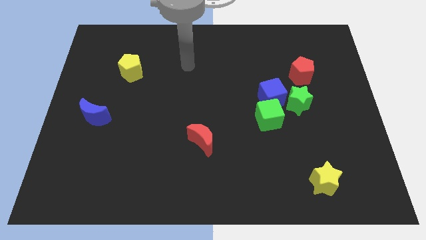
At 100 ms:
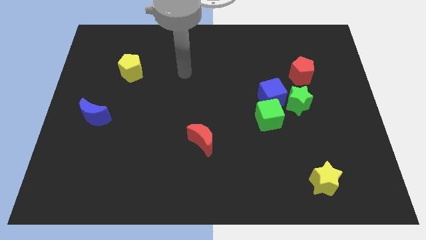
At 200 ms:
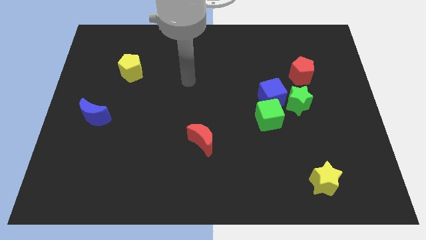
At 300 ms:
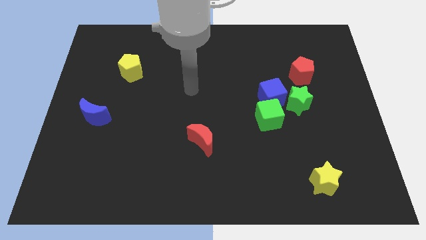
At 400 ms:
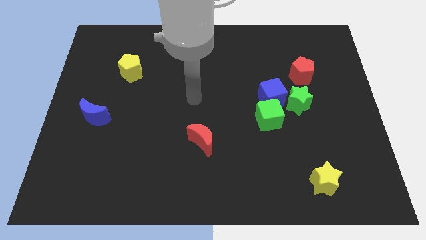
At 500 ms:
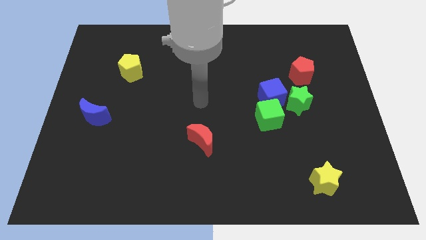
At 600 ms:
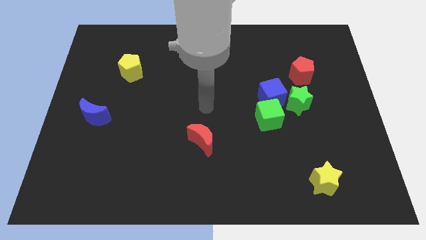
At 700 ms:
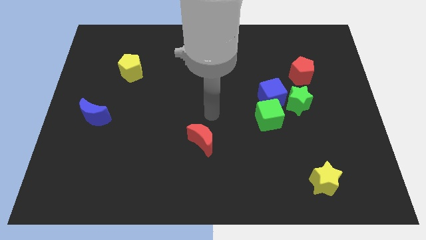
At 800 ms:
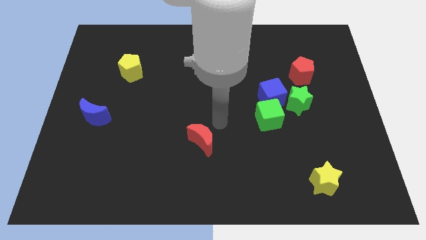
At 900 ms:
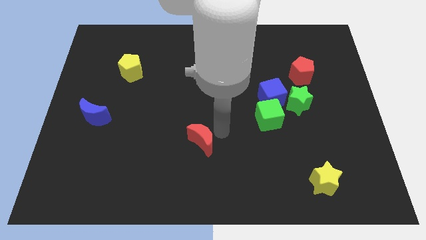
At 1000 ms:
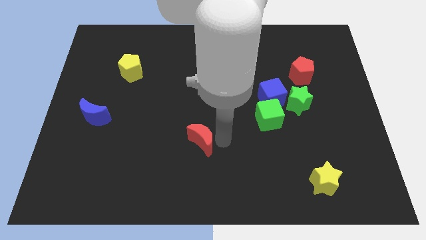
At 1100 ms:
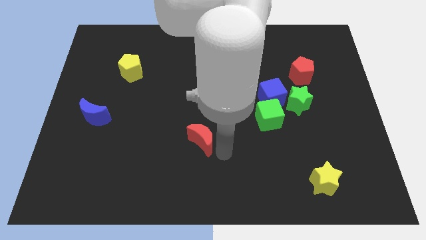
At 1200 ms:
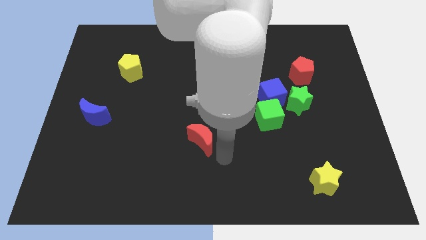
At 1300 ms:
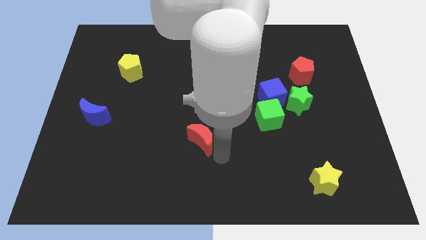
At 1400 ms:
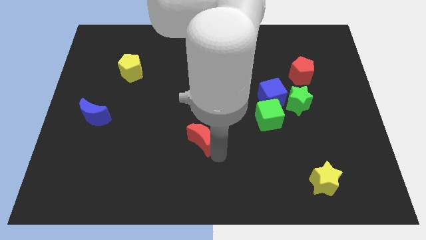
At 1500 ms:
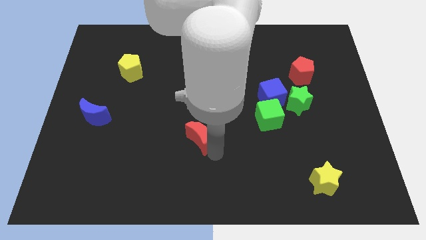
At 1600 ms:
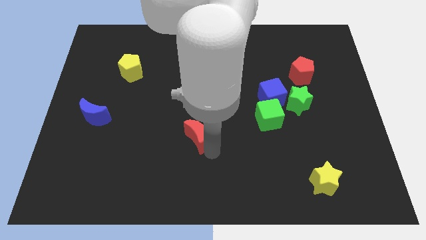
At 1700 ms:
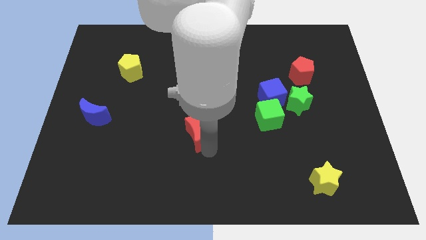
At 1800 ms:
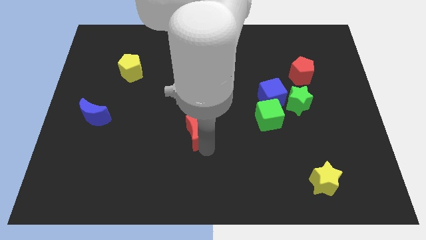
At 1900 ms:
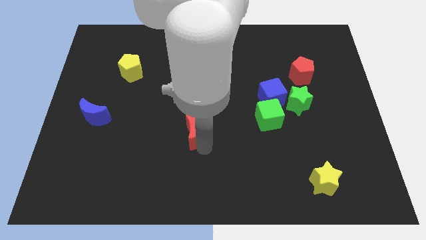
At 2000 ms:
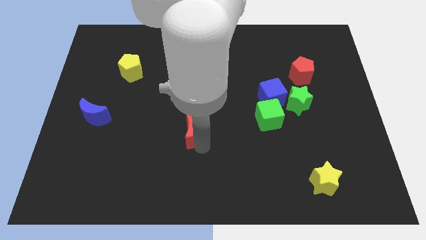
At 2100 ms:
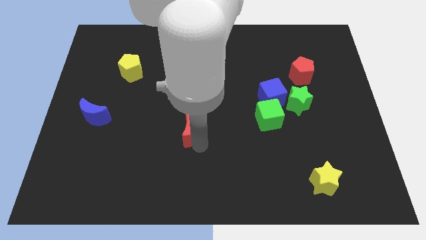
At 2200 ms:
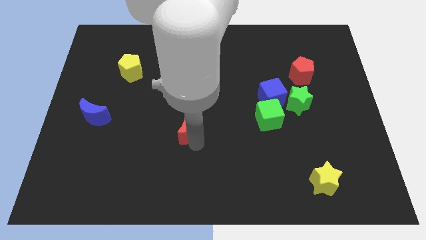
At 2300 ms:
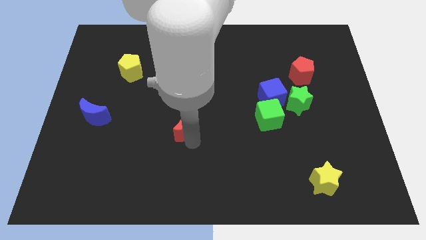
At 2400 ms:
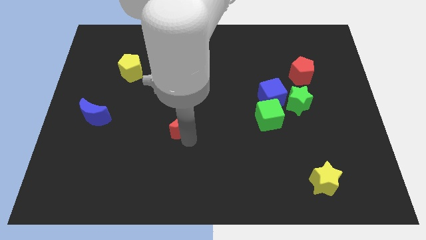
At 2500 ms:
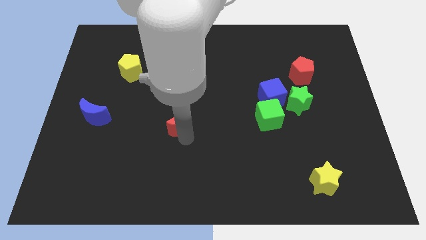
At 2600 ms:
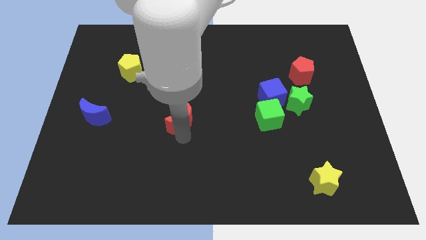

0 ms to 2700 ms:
slightly push the red moon upwards and then left

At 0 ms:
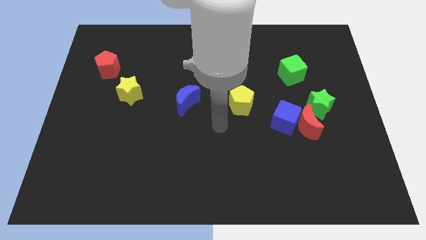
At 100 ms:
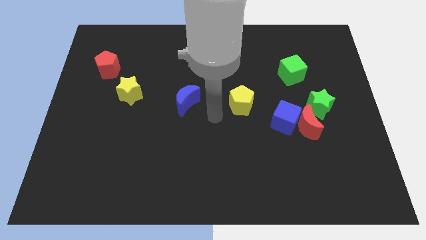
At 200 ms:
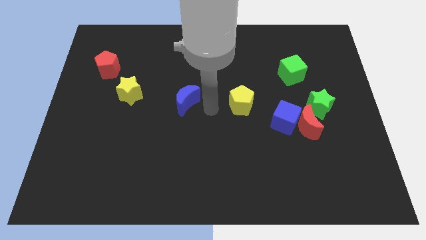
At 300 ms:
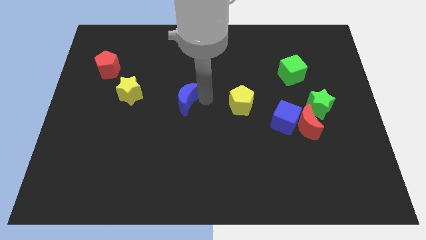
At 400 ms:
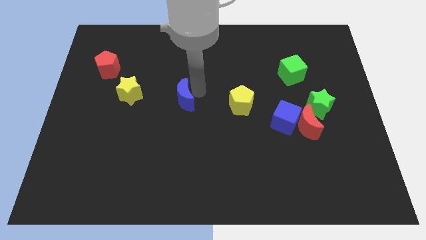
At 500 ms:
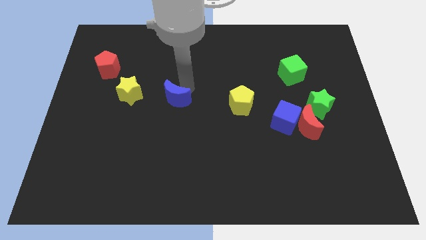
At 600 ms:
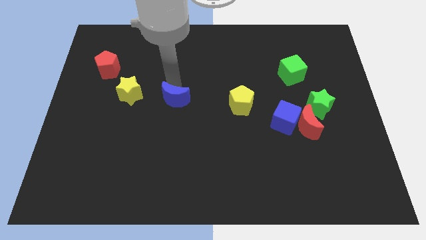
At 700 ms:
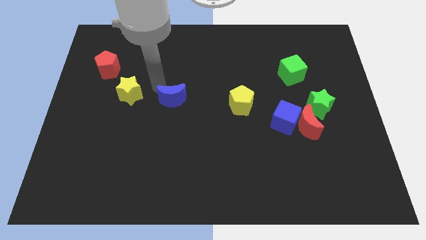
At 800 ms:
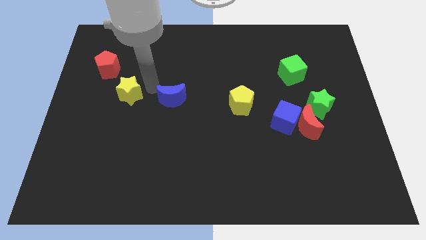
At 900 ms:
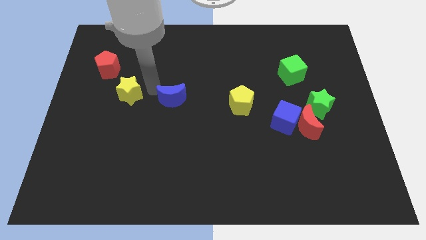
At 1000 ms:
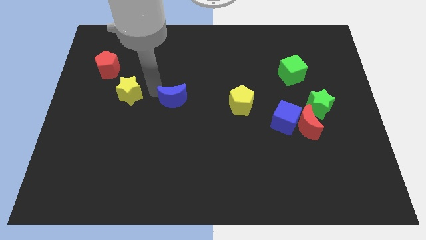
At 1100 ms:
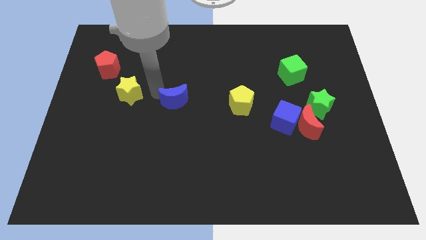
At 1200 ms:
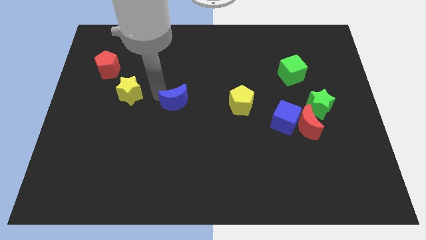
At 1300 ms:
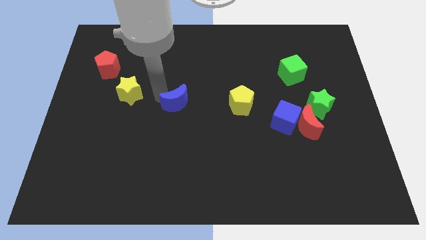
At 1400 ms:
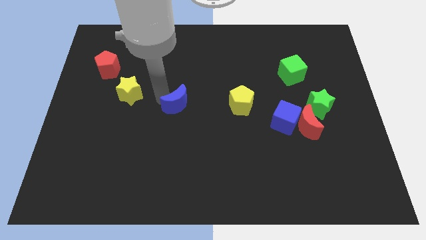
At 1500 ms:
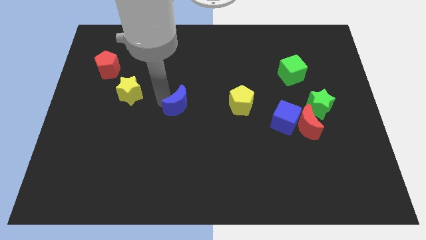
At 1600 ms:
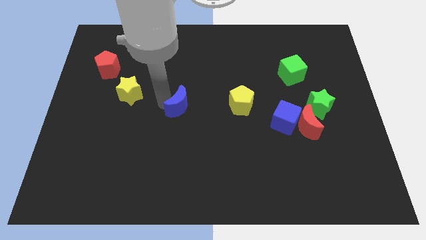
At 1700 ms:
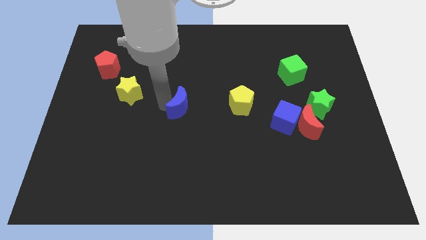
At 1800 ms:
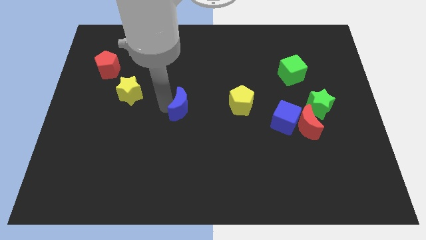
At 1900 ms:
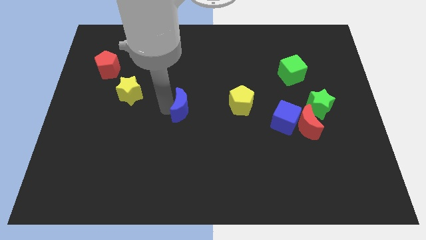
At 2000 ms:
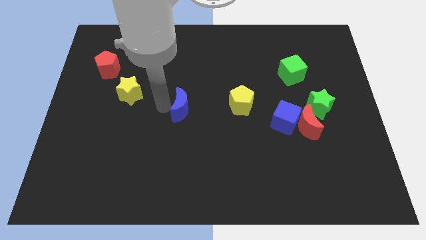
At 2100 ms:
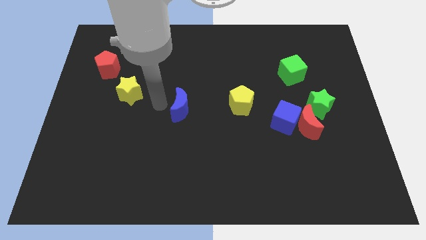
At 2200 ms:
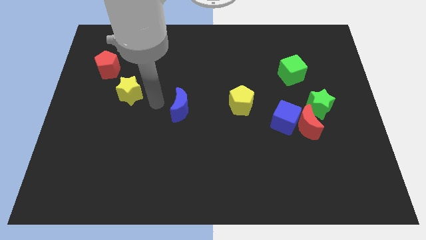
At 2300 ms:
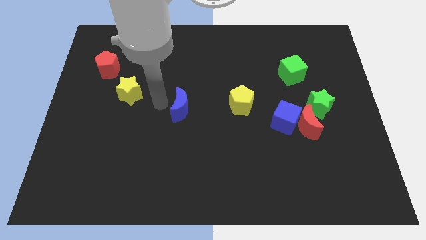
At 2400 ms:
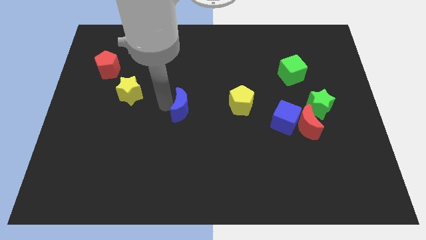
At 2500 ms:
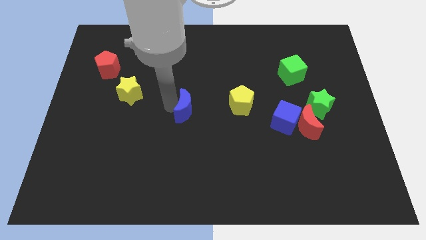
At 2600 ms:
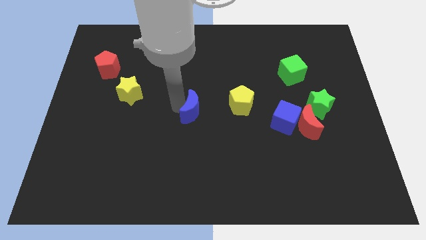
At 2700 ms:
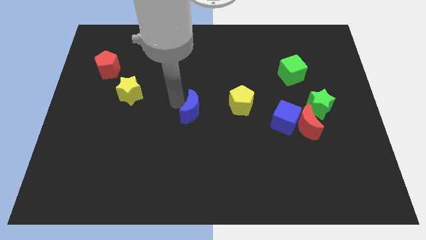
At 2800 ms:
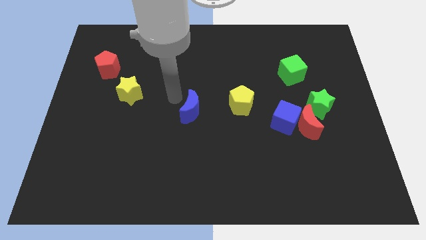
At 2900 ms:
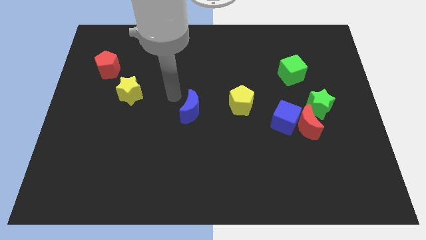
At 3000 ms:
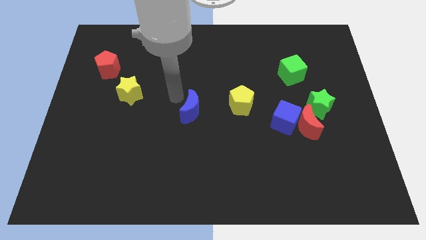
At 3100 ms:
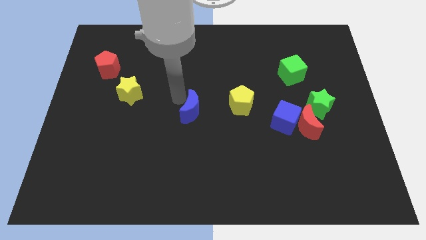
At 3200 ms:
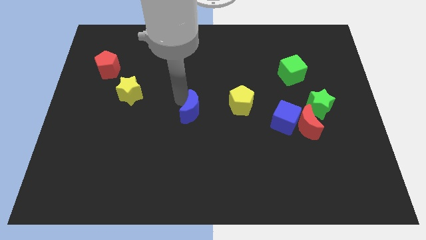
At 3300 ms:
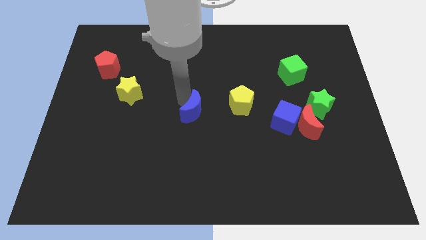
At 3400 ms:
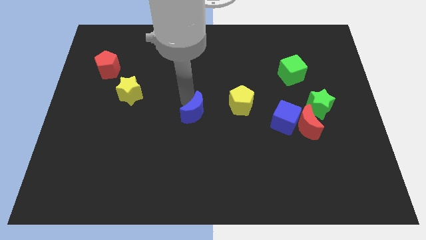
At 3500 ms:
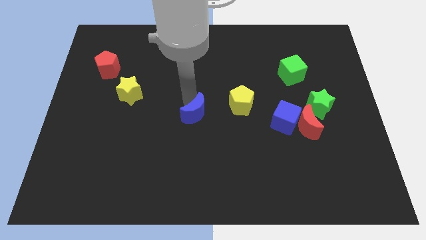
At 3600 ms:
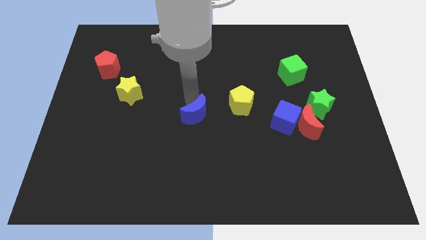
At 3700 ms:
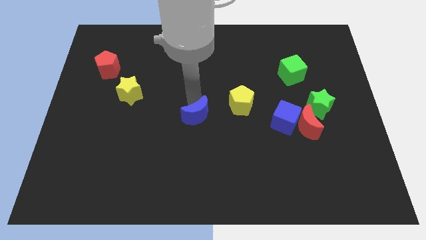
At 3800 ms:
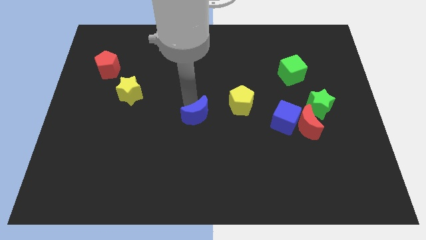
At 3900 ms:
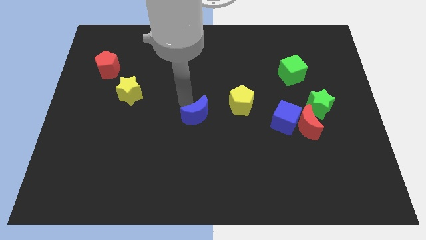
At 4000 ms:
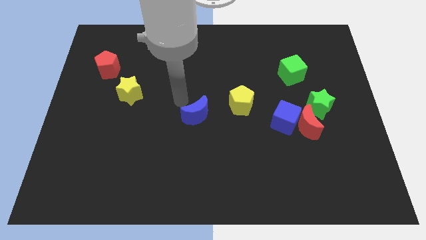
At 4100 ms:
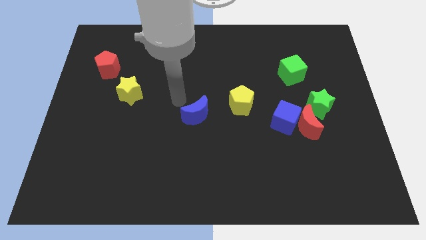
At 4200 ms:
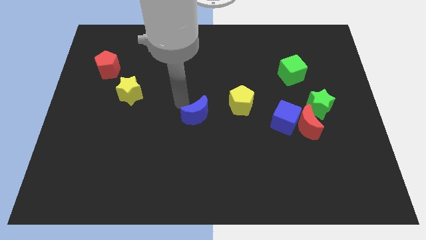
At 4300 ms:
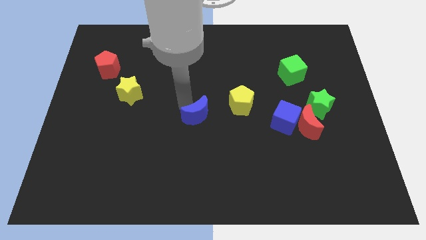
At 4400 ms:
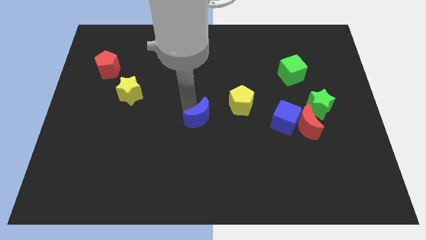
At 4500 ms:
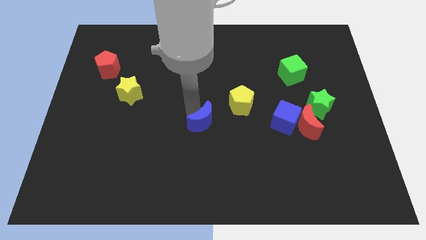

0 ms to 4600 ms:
push the blue moon a bit down and right

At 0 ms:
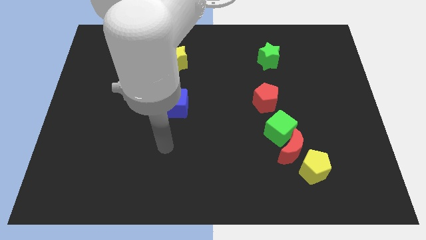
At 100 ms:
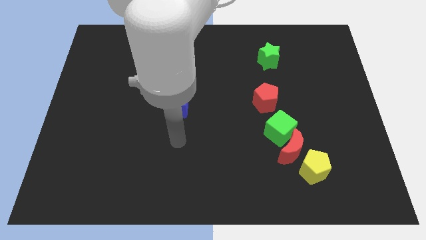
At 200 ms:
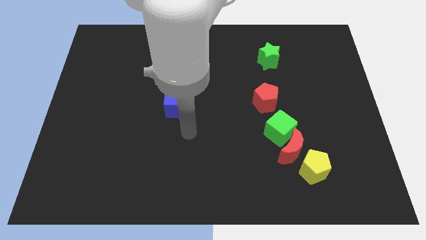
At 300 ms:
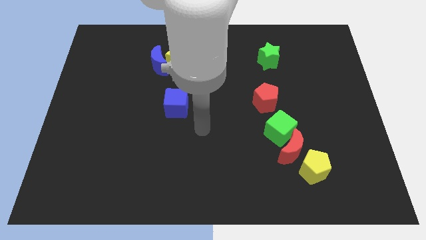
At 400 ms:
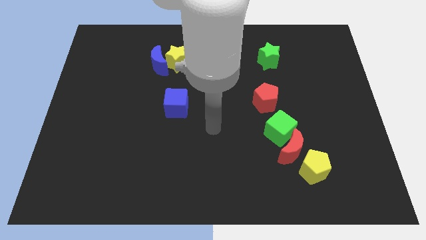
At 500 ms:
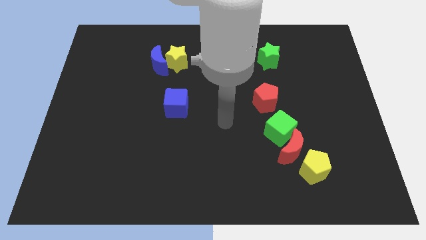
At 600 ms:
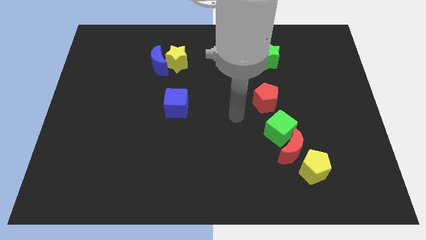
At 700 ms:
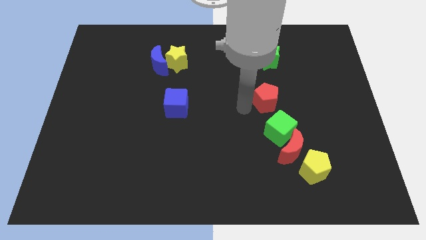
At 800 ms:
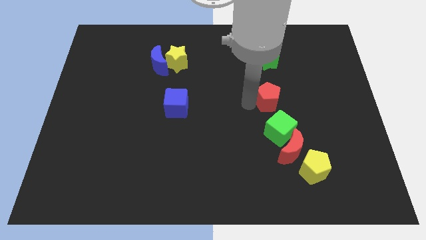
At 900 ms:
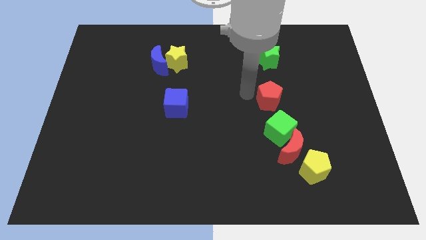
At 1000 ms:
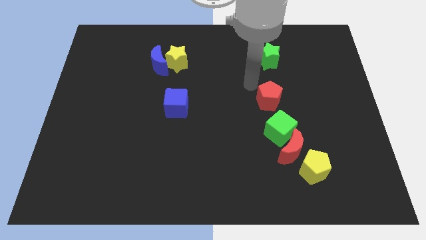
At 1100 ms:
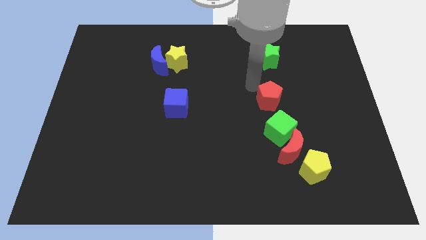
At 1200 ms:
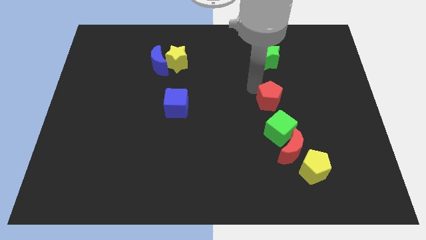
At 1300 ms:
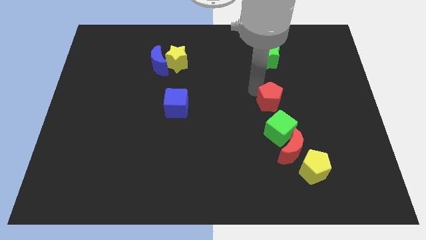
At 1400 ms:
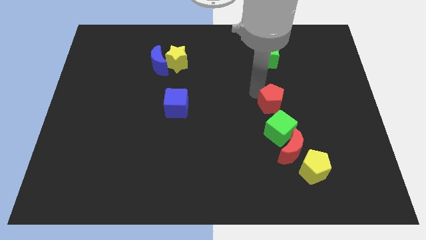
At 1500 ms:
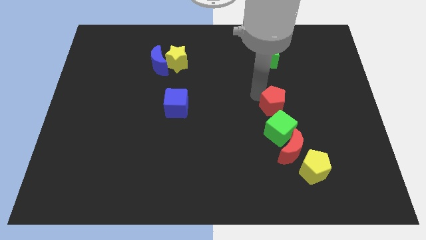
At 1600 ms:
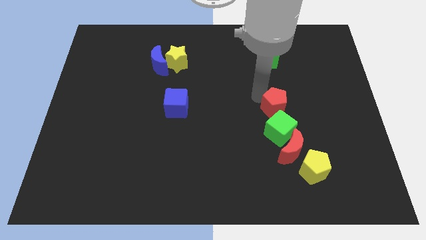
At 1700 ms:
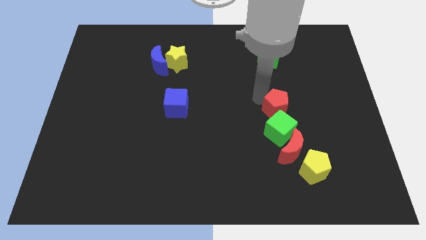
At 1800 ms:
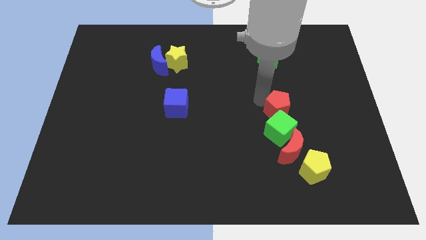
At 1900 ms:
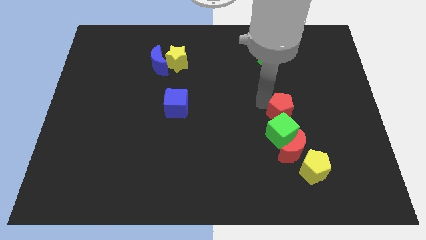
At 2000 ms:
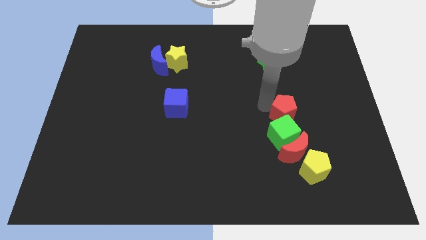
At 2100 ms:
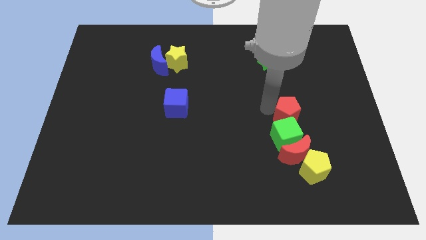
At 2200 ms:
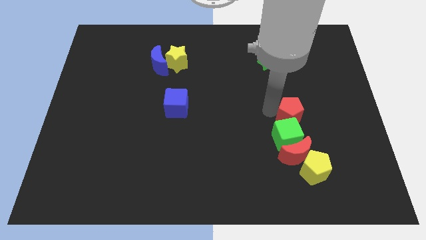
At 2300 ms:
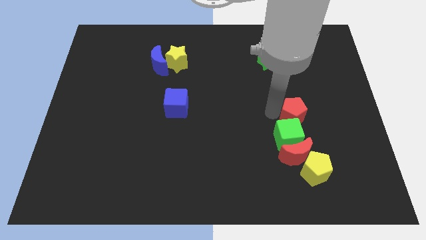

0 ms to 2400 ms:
slide the red pentagon down and to the right diagonally a bit
